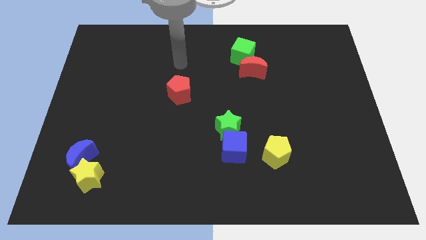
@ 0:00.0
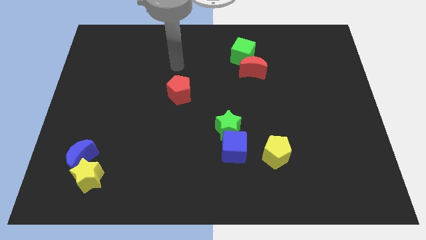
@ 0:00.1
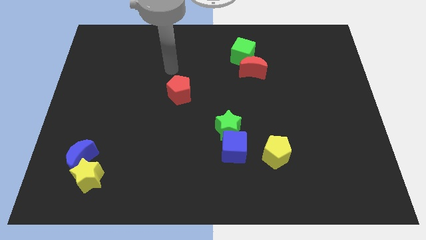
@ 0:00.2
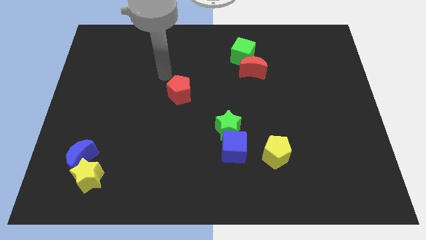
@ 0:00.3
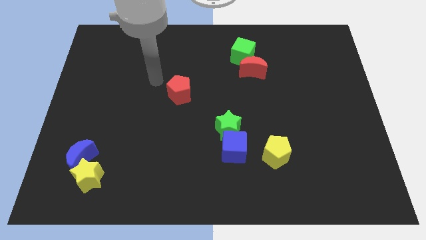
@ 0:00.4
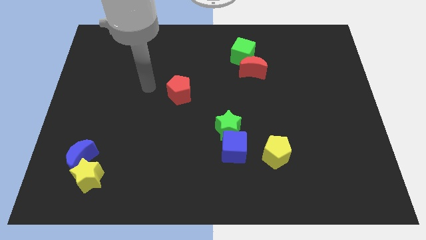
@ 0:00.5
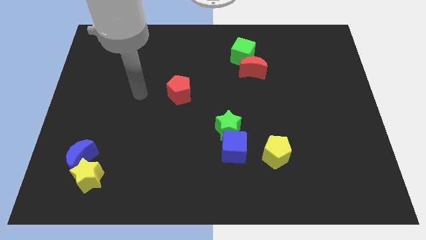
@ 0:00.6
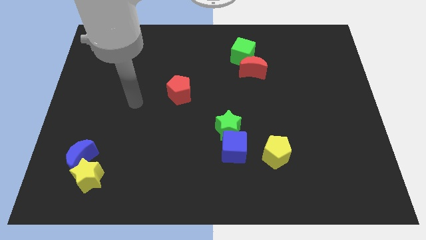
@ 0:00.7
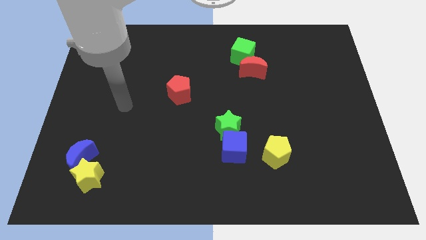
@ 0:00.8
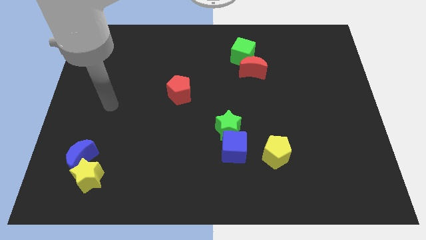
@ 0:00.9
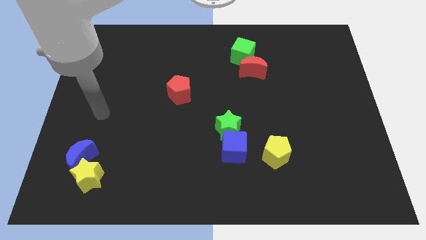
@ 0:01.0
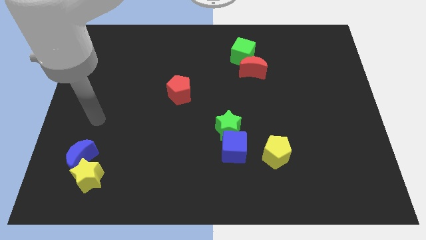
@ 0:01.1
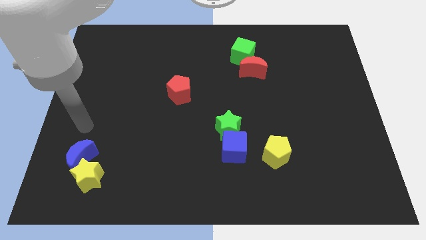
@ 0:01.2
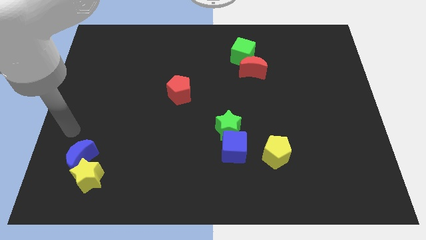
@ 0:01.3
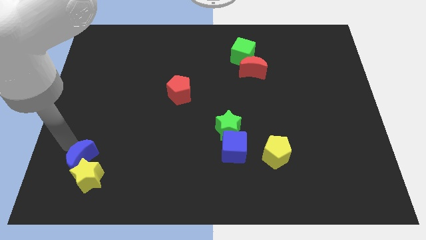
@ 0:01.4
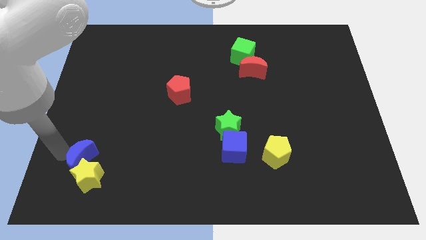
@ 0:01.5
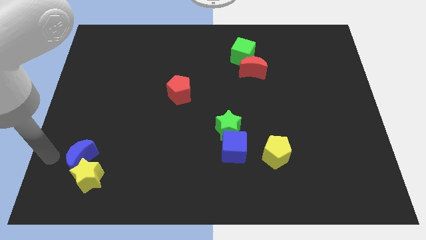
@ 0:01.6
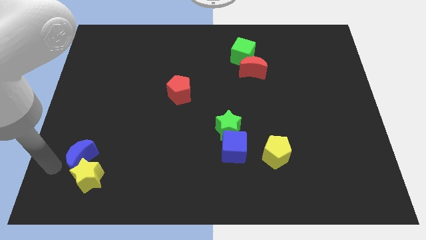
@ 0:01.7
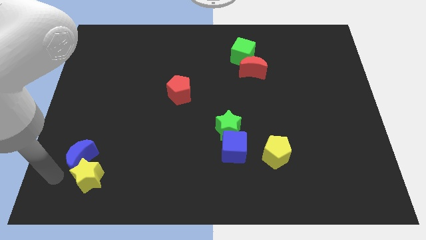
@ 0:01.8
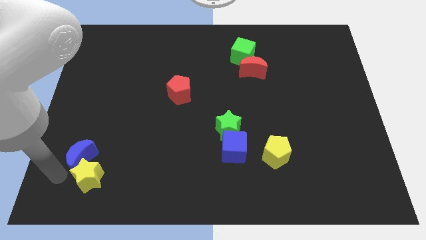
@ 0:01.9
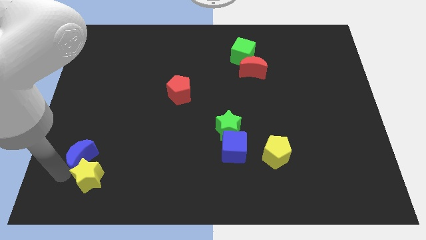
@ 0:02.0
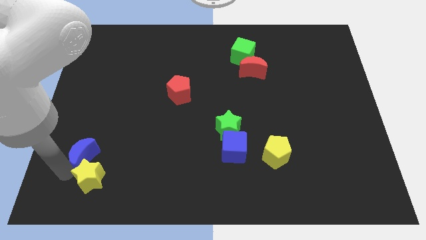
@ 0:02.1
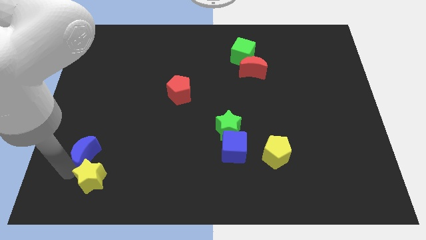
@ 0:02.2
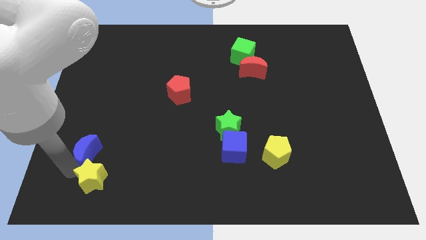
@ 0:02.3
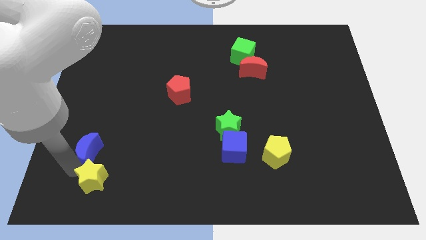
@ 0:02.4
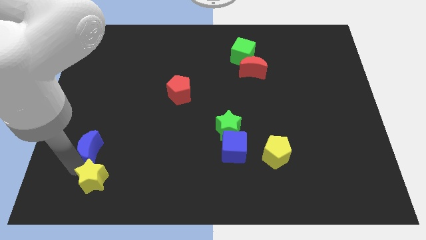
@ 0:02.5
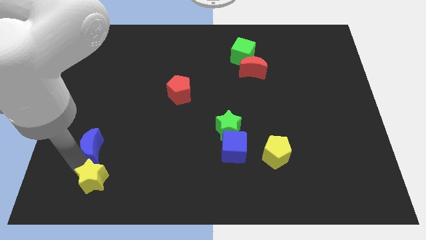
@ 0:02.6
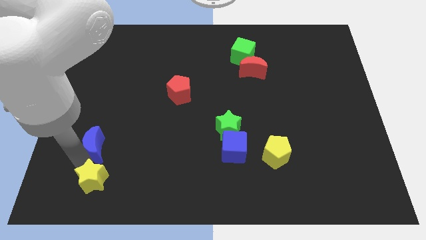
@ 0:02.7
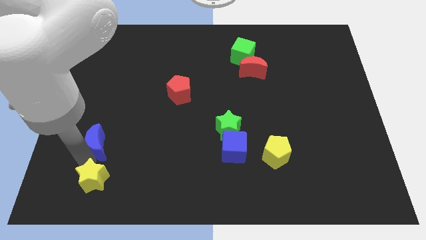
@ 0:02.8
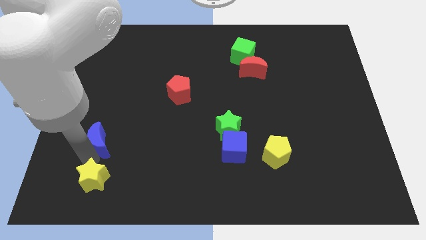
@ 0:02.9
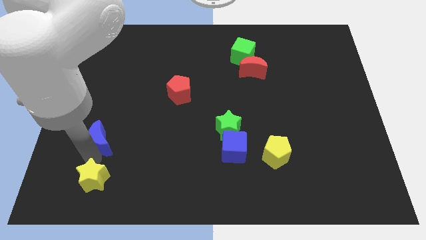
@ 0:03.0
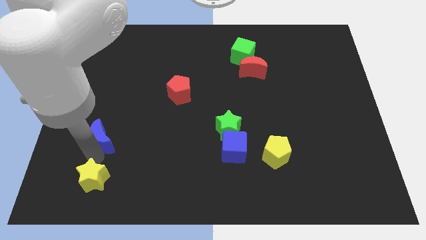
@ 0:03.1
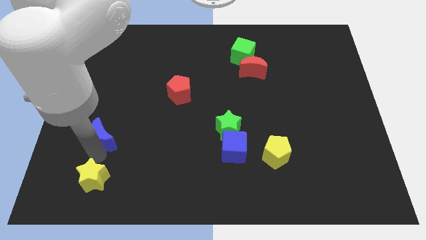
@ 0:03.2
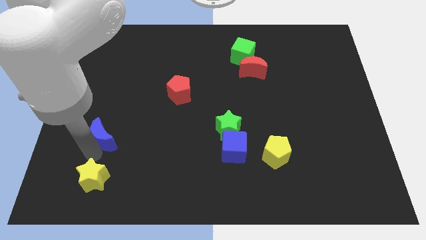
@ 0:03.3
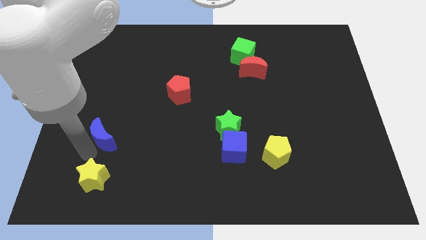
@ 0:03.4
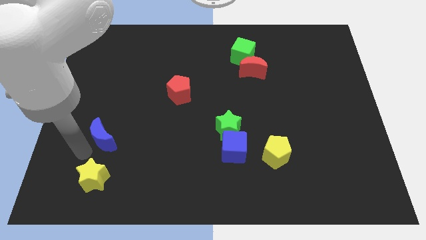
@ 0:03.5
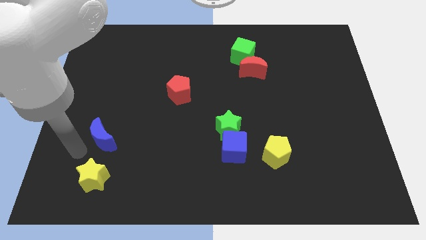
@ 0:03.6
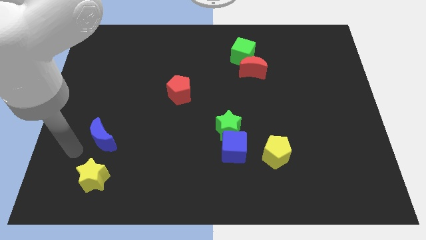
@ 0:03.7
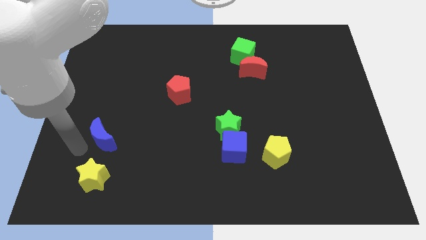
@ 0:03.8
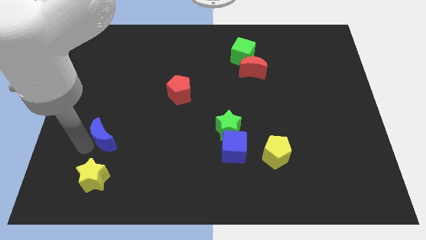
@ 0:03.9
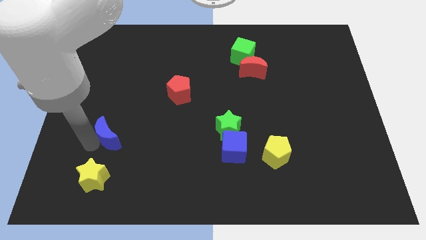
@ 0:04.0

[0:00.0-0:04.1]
move the blue moon a little up and then to the right

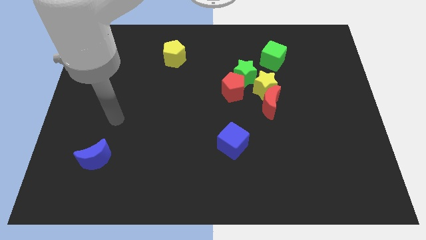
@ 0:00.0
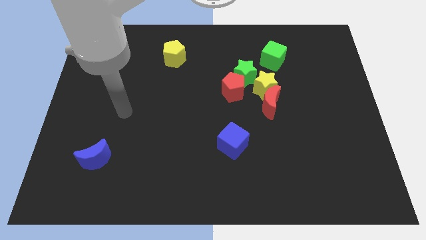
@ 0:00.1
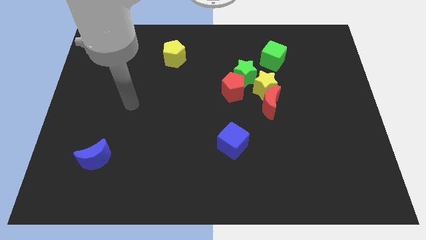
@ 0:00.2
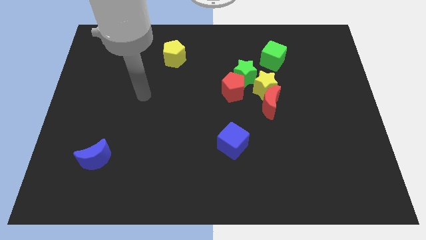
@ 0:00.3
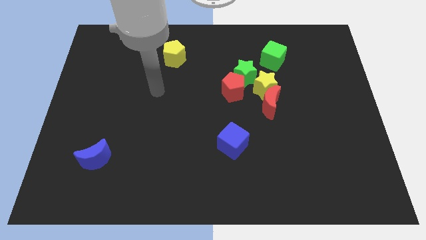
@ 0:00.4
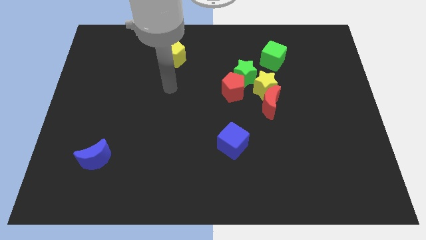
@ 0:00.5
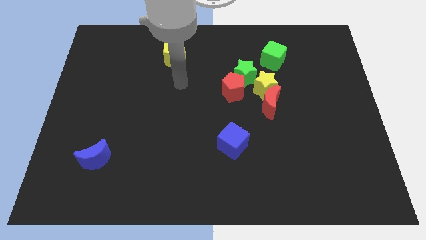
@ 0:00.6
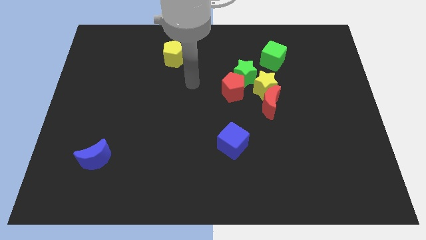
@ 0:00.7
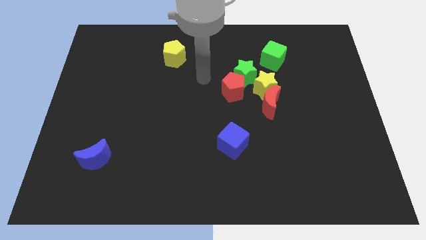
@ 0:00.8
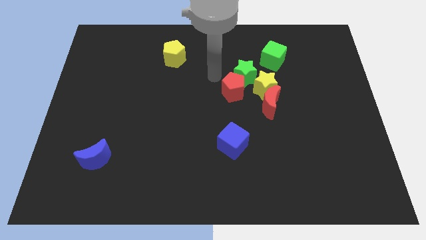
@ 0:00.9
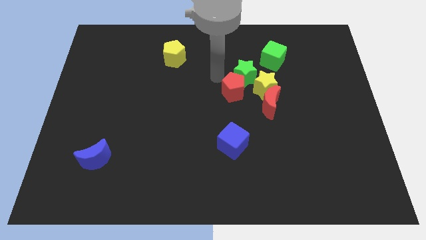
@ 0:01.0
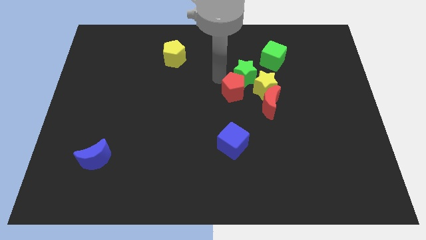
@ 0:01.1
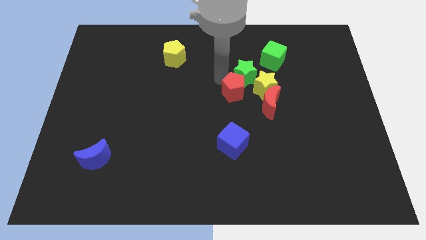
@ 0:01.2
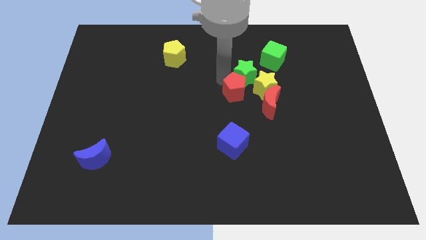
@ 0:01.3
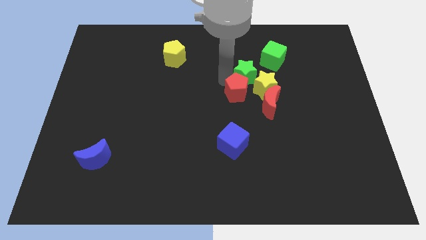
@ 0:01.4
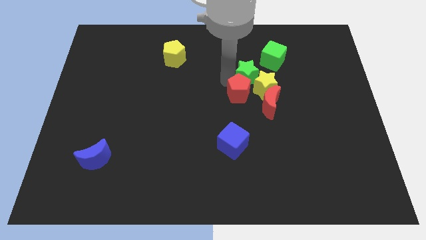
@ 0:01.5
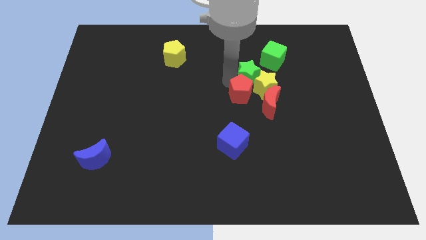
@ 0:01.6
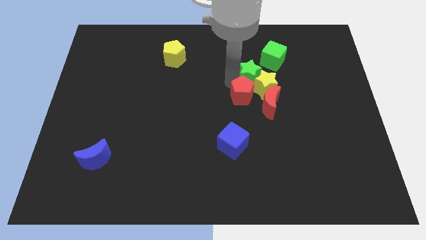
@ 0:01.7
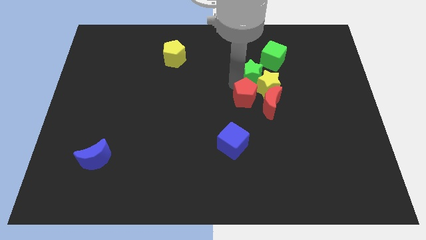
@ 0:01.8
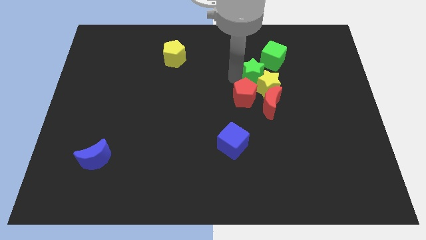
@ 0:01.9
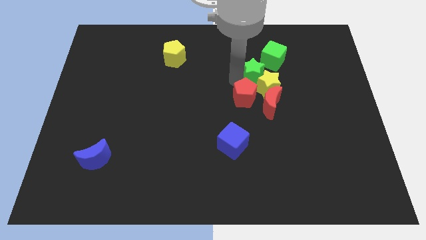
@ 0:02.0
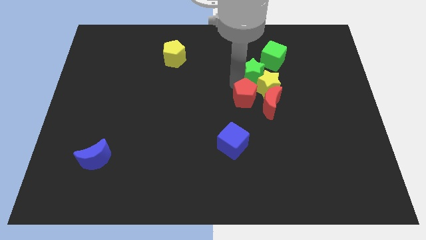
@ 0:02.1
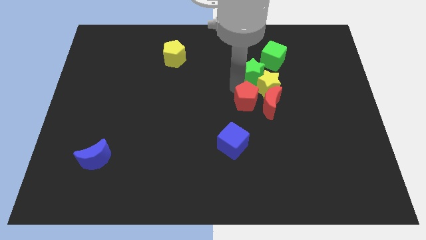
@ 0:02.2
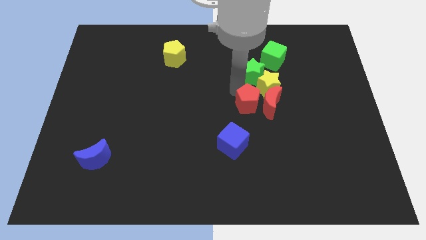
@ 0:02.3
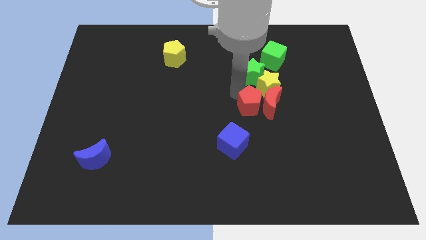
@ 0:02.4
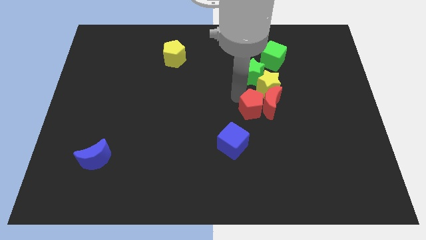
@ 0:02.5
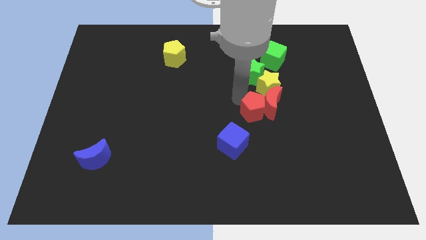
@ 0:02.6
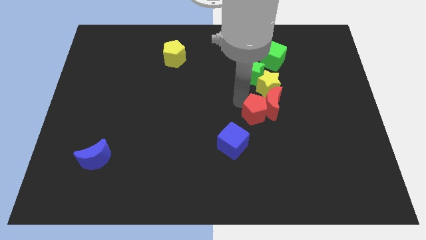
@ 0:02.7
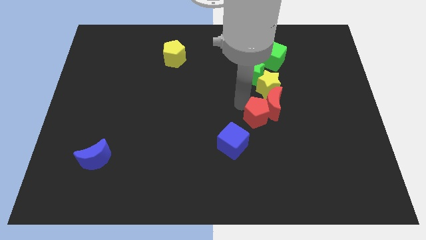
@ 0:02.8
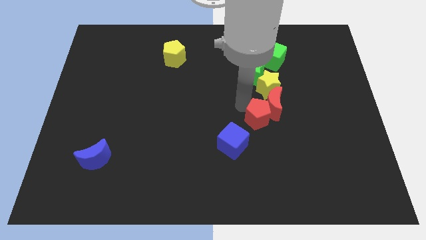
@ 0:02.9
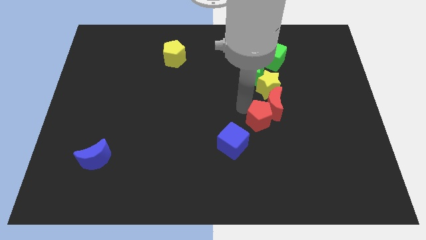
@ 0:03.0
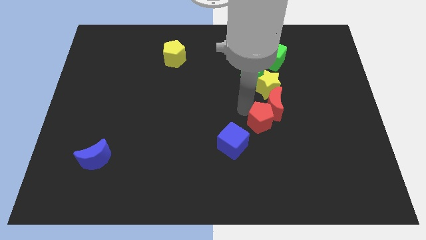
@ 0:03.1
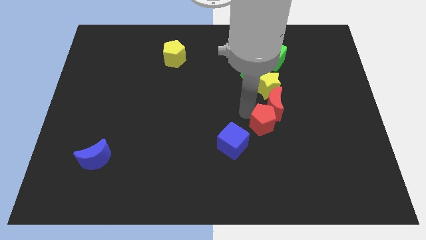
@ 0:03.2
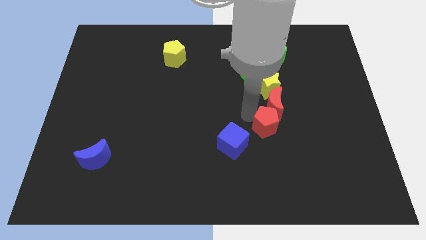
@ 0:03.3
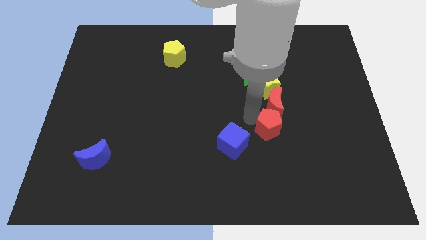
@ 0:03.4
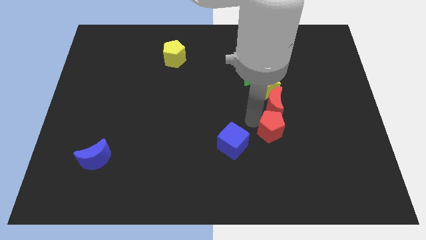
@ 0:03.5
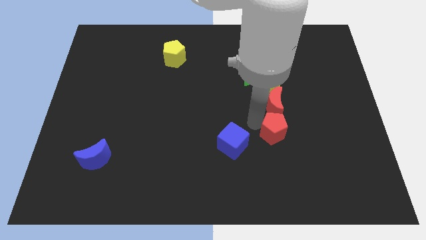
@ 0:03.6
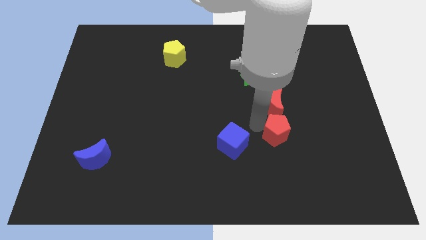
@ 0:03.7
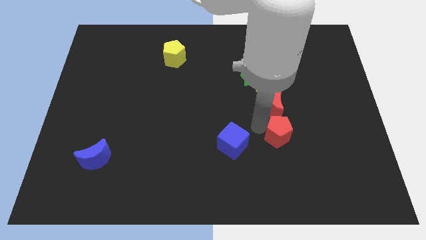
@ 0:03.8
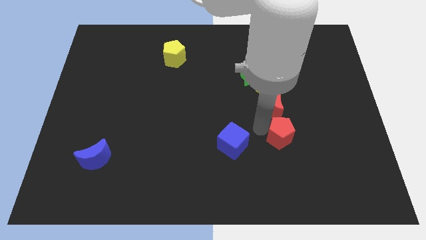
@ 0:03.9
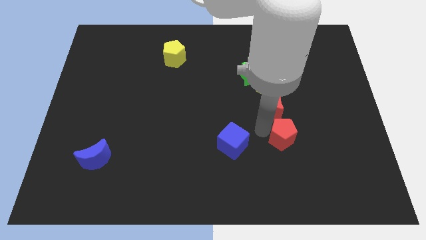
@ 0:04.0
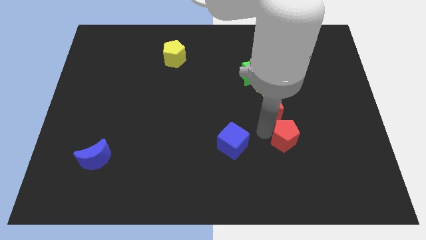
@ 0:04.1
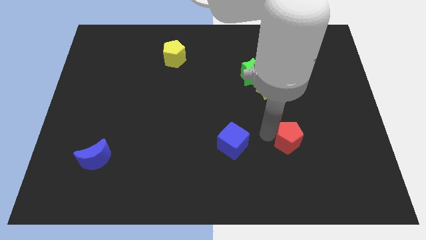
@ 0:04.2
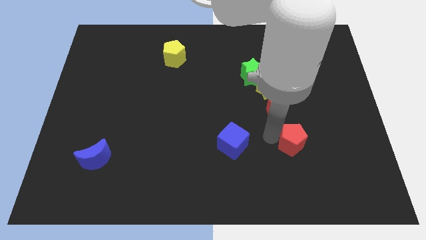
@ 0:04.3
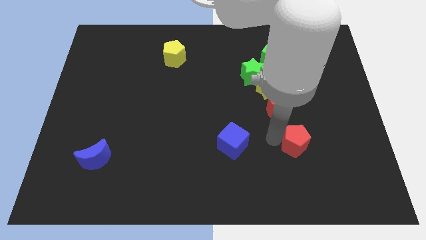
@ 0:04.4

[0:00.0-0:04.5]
slide the red pentagon diagonally down and right
